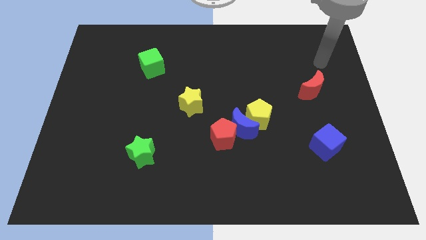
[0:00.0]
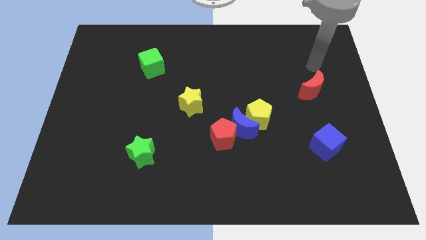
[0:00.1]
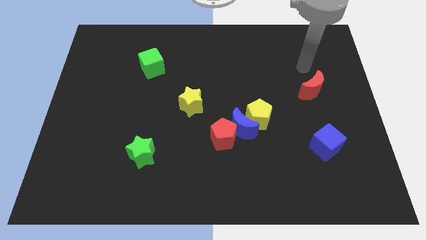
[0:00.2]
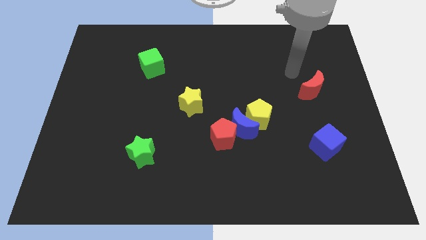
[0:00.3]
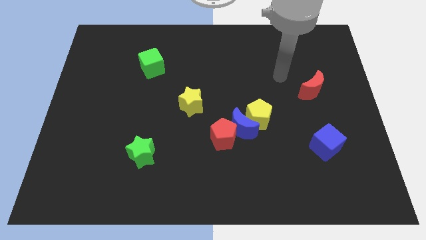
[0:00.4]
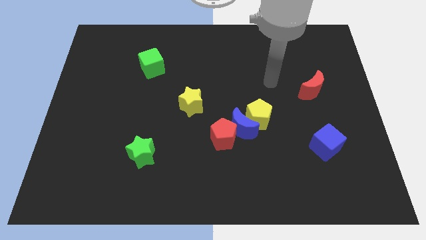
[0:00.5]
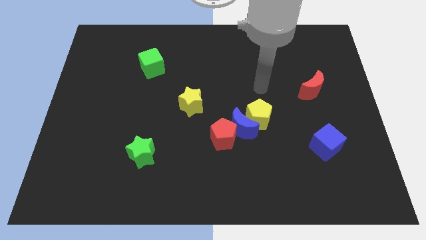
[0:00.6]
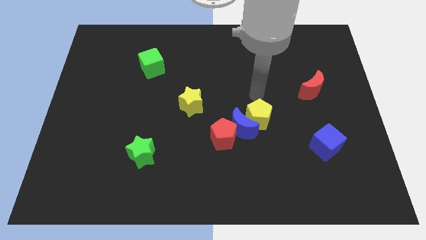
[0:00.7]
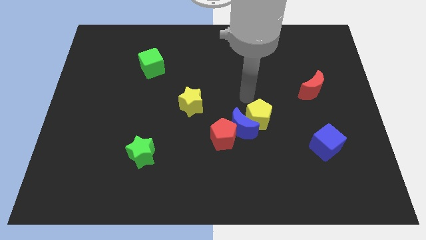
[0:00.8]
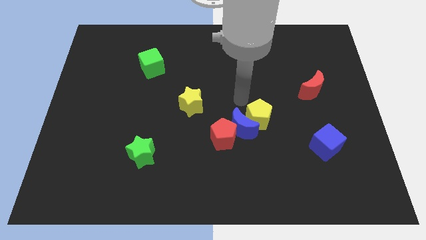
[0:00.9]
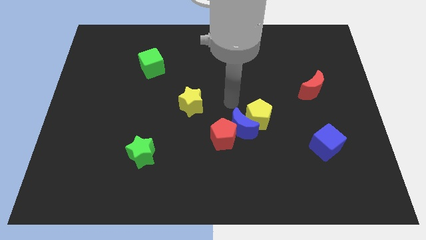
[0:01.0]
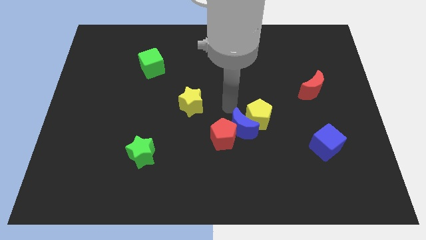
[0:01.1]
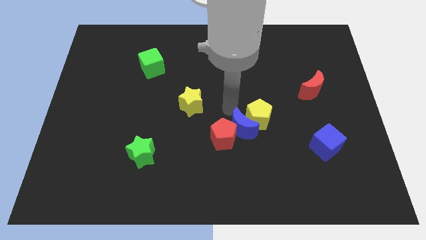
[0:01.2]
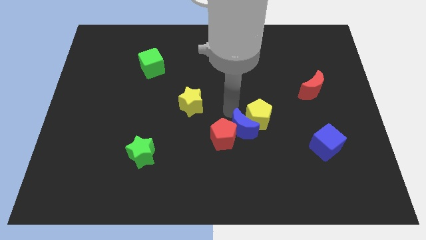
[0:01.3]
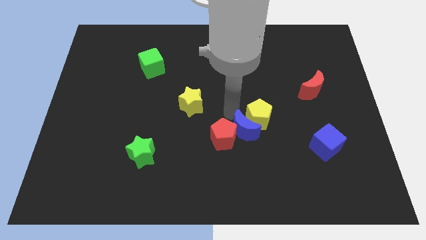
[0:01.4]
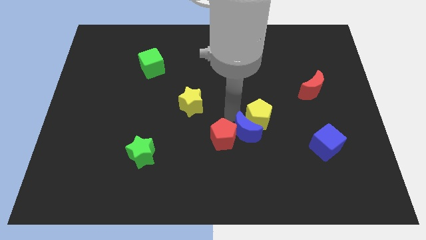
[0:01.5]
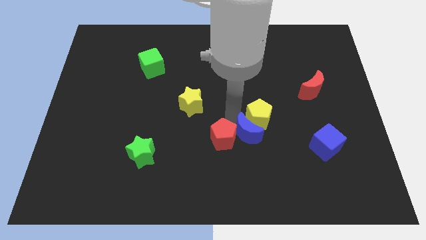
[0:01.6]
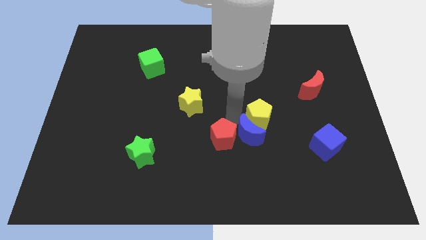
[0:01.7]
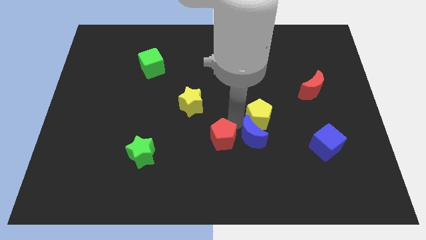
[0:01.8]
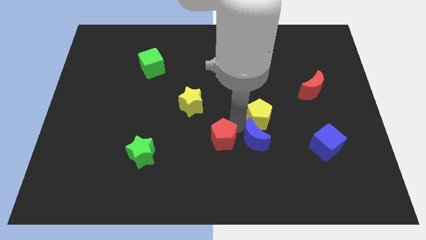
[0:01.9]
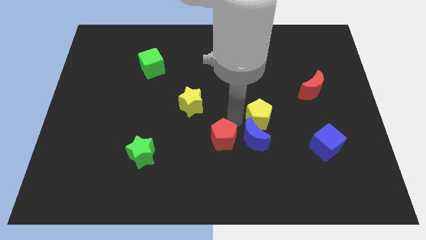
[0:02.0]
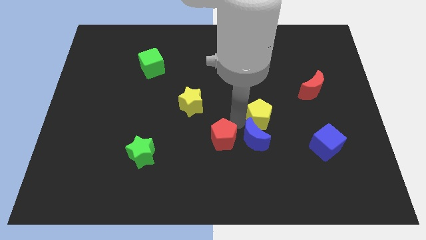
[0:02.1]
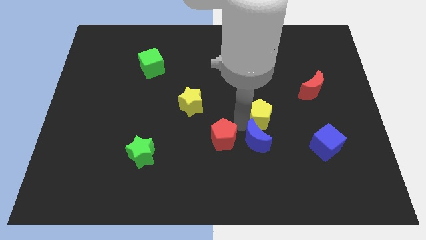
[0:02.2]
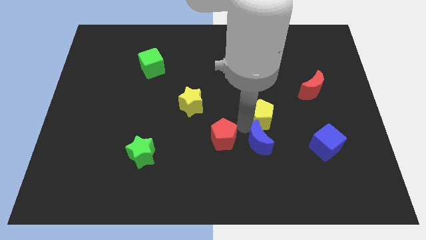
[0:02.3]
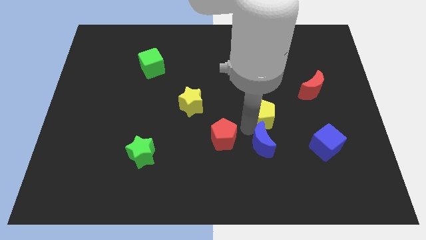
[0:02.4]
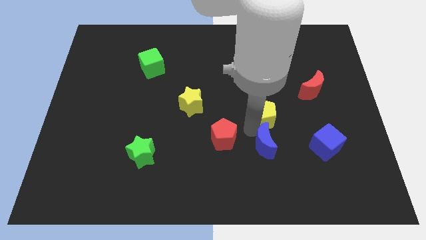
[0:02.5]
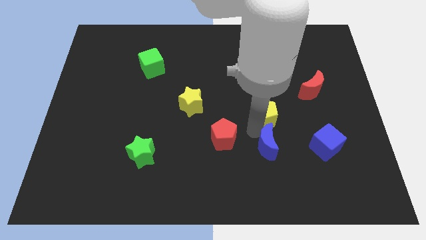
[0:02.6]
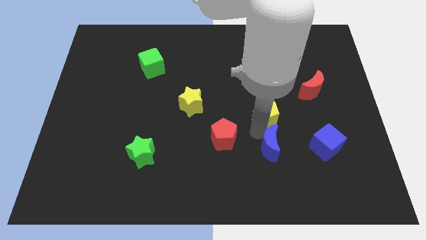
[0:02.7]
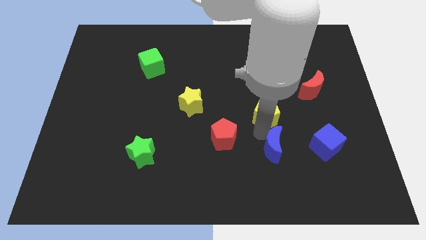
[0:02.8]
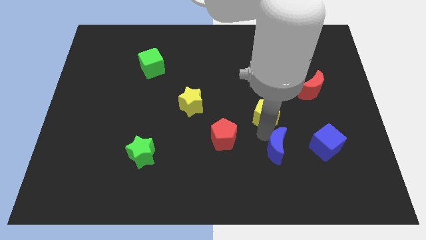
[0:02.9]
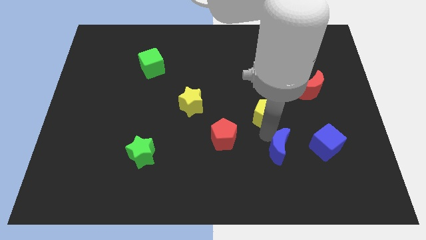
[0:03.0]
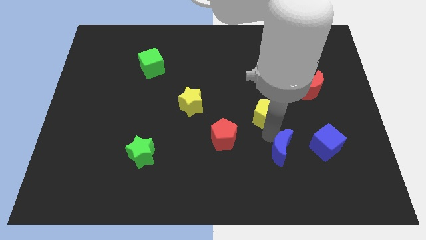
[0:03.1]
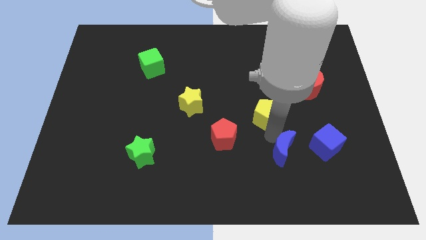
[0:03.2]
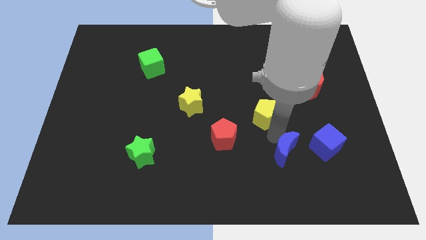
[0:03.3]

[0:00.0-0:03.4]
pull the blue moon apart from the red pentagon and yellow pentagon

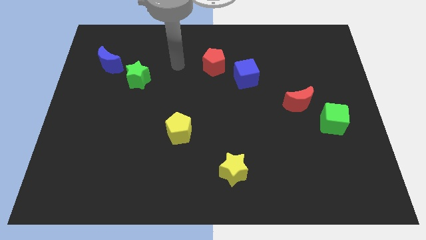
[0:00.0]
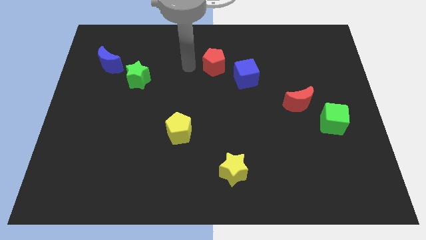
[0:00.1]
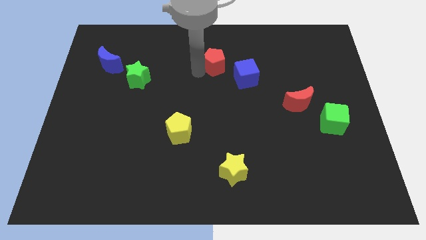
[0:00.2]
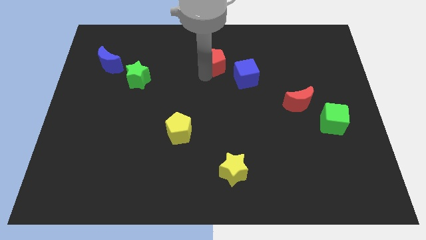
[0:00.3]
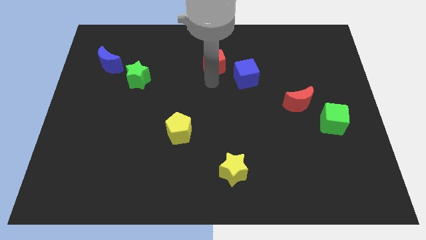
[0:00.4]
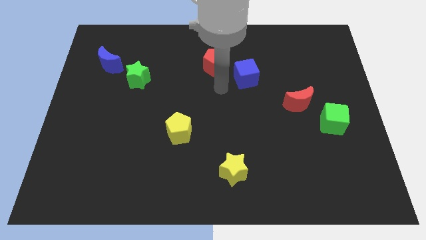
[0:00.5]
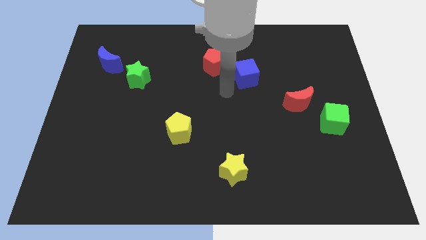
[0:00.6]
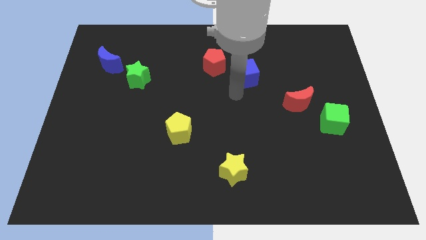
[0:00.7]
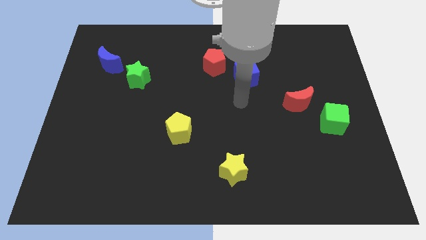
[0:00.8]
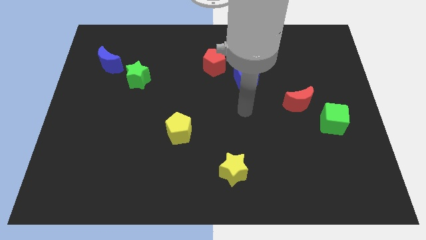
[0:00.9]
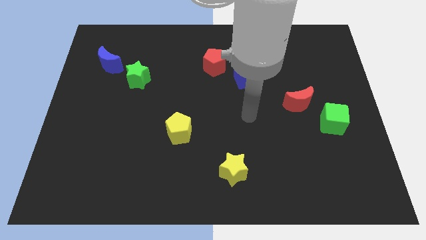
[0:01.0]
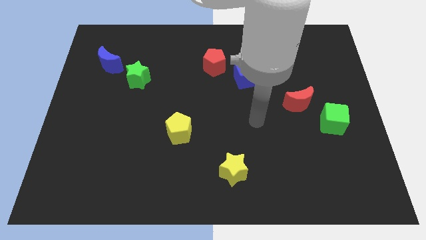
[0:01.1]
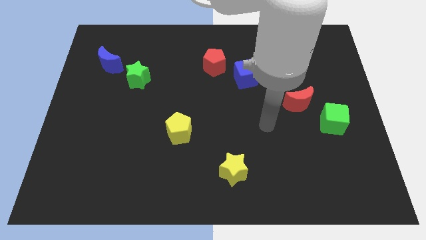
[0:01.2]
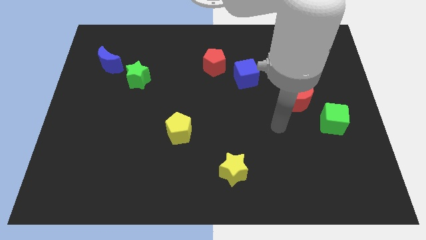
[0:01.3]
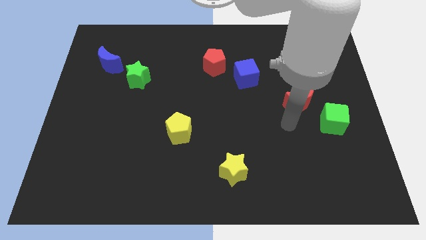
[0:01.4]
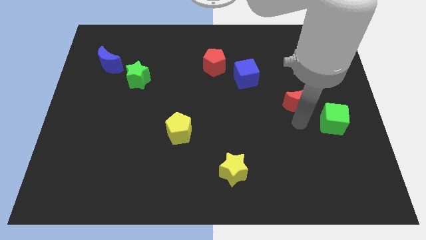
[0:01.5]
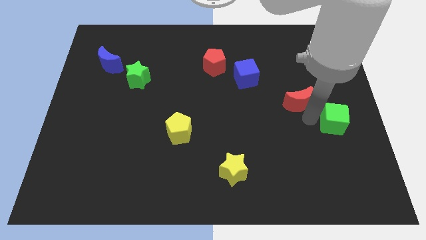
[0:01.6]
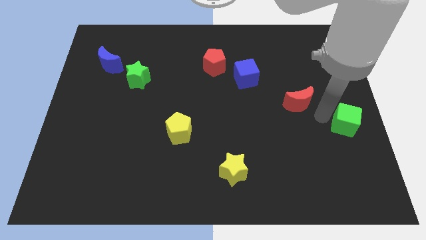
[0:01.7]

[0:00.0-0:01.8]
pull the red moon apart from the green cube

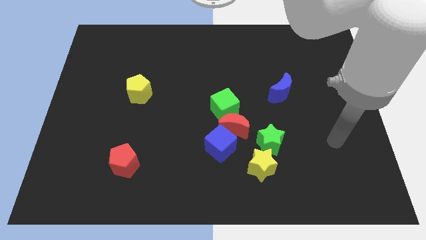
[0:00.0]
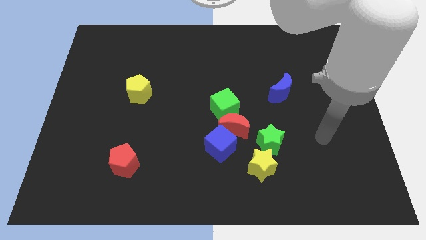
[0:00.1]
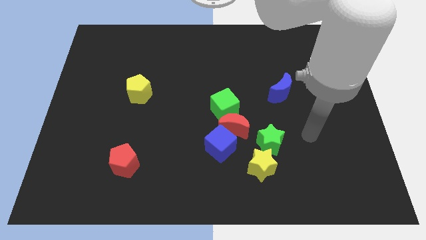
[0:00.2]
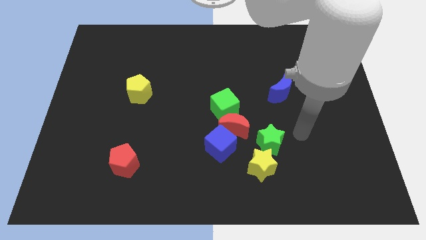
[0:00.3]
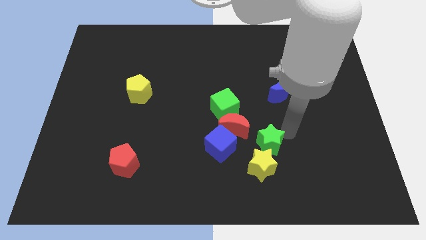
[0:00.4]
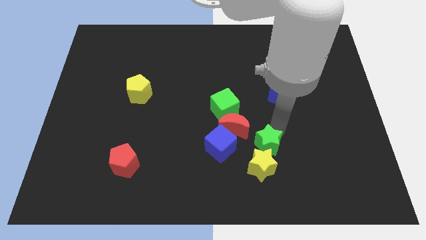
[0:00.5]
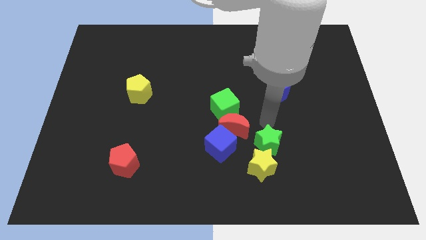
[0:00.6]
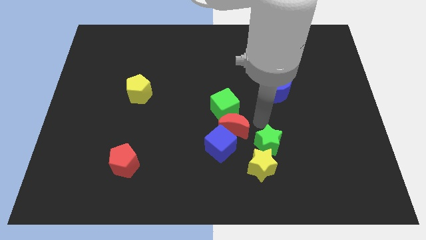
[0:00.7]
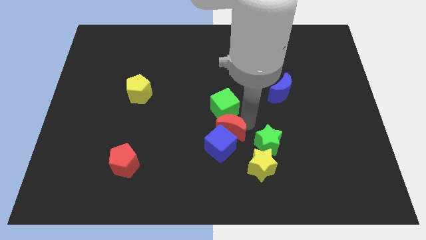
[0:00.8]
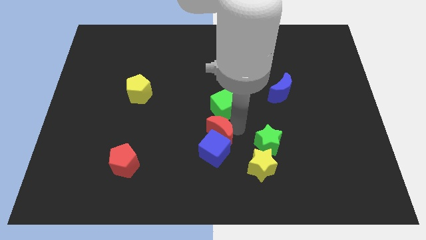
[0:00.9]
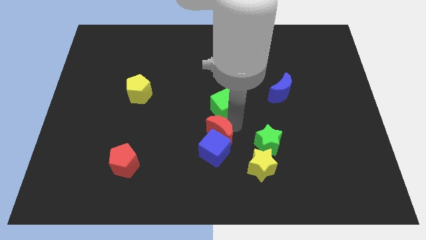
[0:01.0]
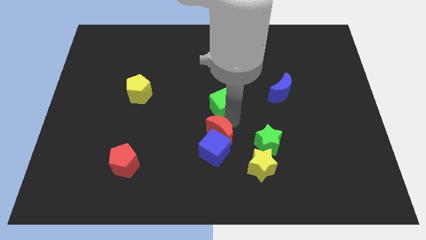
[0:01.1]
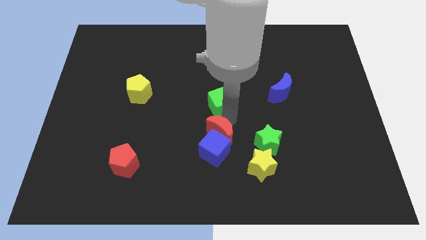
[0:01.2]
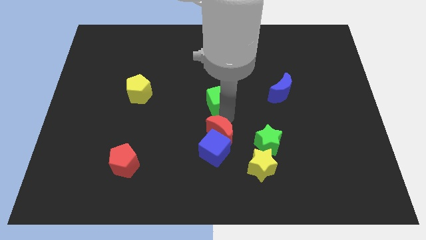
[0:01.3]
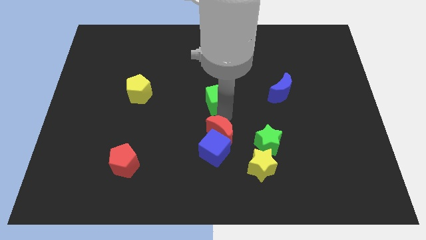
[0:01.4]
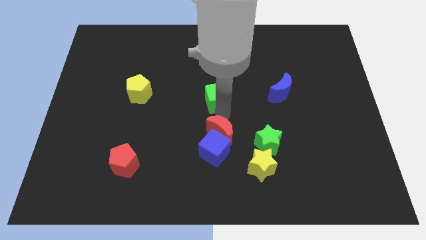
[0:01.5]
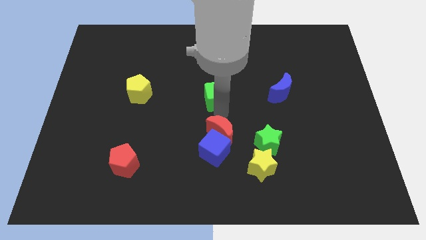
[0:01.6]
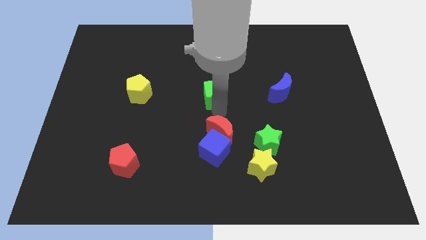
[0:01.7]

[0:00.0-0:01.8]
move the green cube away from the red moon

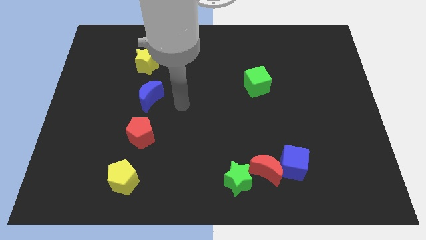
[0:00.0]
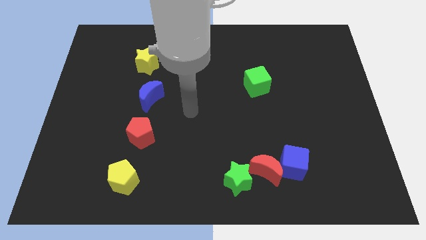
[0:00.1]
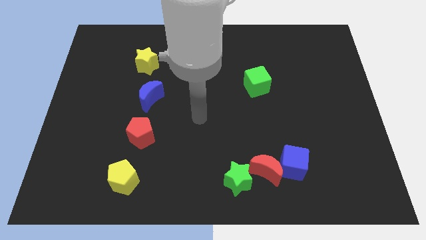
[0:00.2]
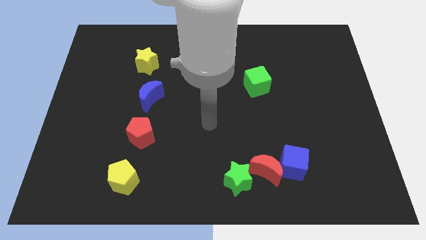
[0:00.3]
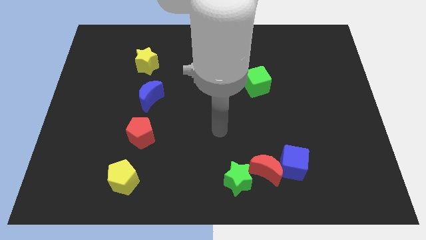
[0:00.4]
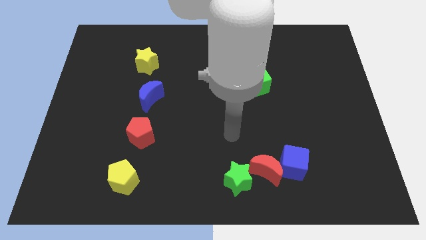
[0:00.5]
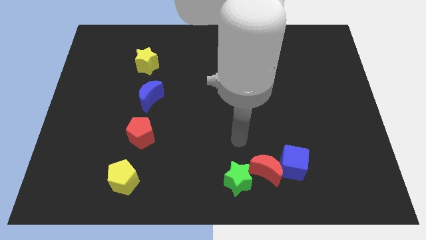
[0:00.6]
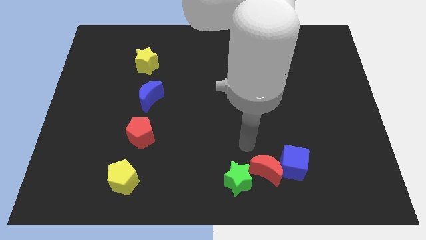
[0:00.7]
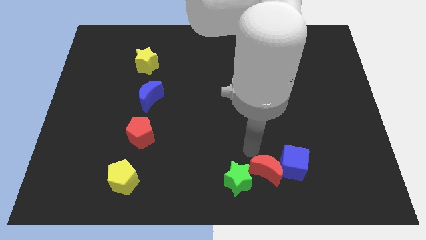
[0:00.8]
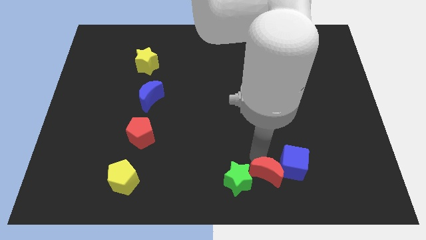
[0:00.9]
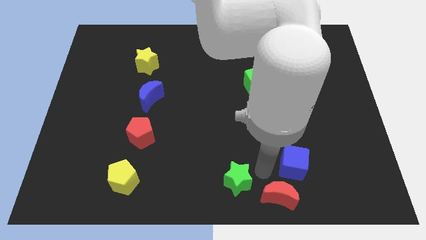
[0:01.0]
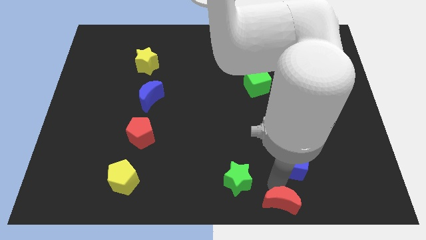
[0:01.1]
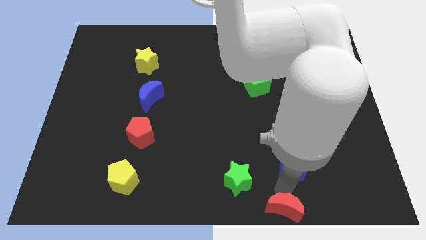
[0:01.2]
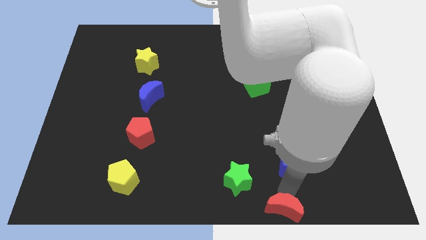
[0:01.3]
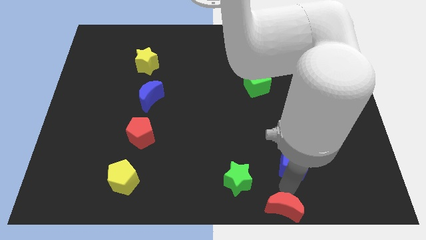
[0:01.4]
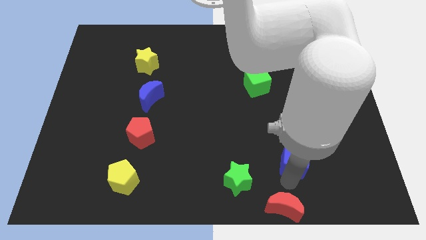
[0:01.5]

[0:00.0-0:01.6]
move the blue cube away from the red moon

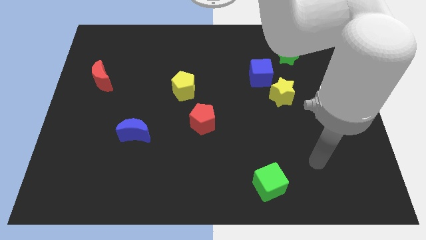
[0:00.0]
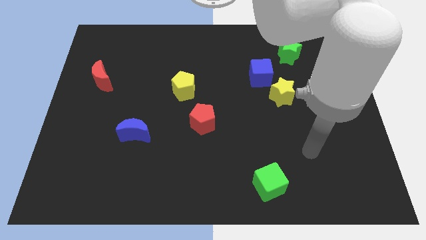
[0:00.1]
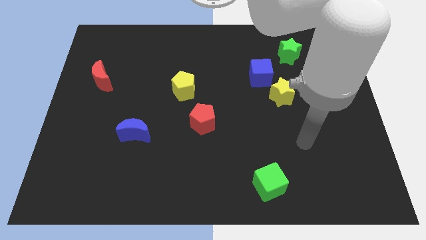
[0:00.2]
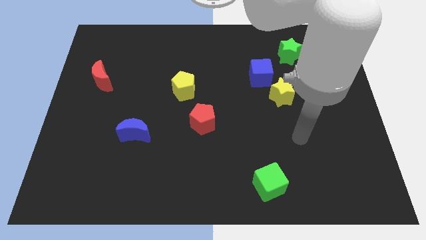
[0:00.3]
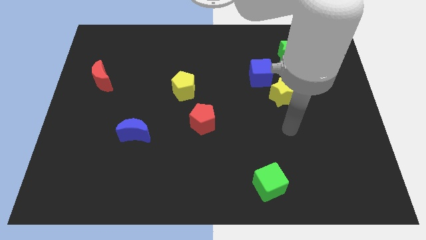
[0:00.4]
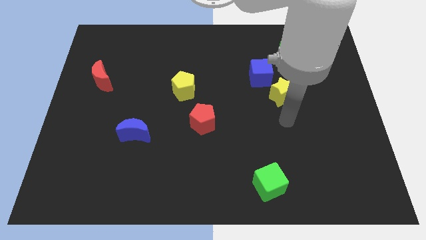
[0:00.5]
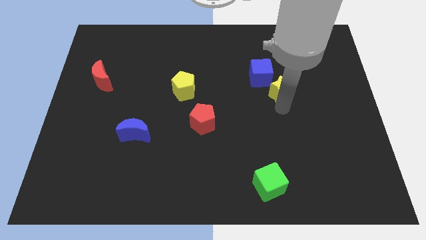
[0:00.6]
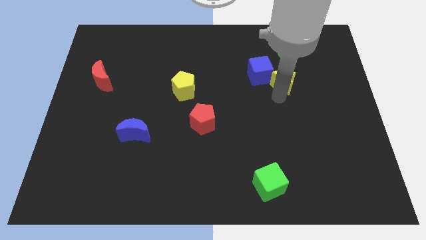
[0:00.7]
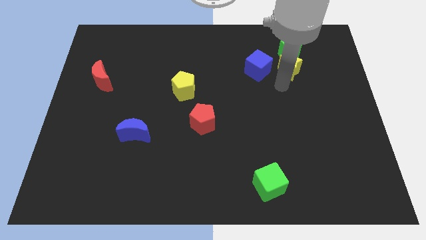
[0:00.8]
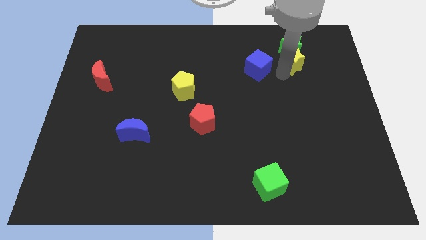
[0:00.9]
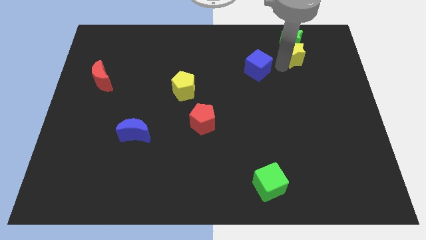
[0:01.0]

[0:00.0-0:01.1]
move the blue cube away from the yellow star
